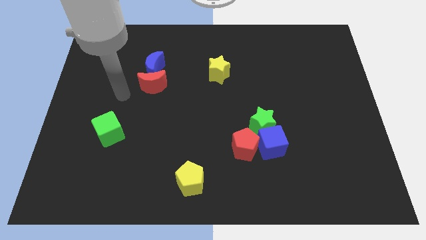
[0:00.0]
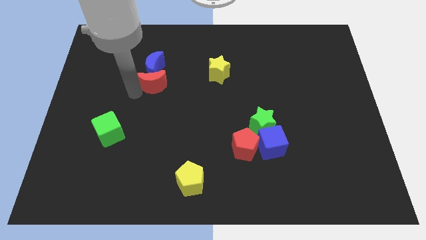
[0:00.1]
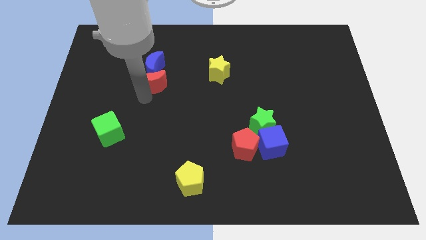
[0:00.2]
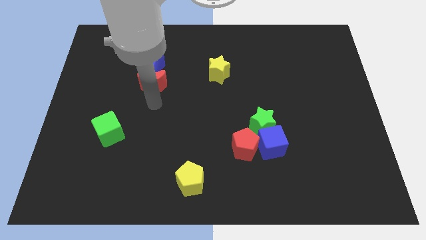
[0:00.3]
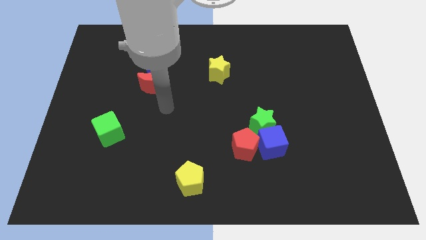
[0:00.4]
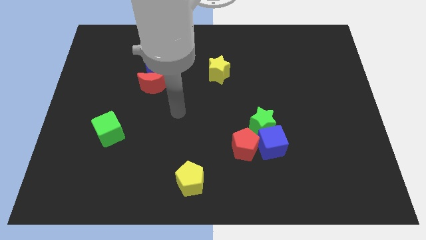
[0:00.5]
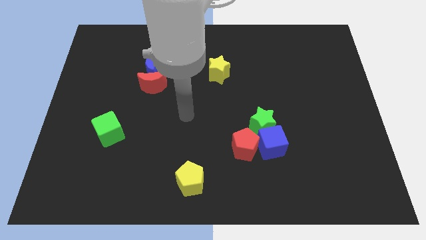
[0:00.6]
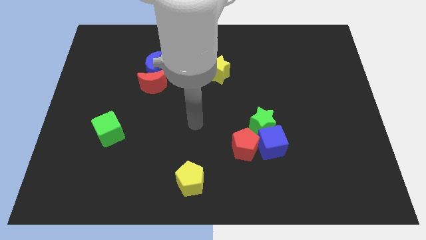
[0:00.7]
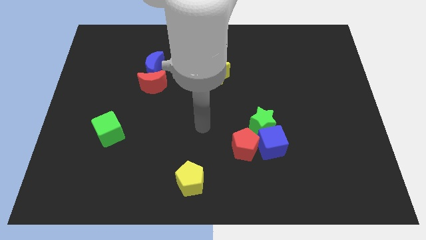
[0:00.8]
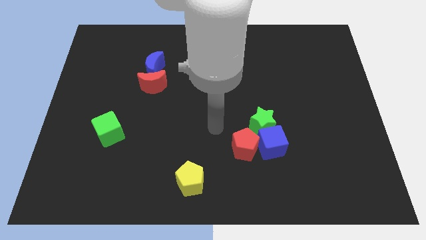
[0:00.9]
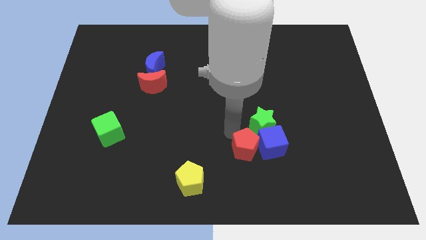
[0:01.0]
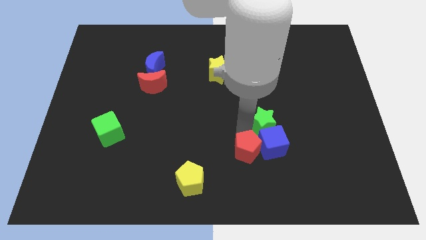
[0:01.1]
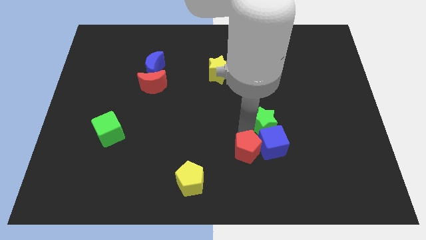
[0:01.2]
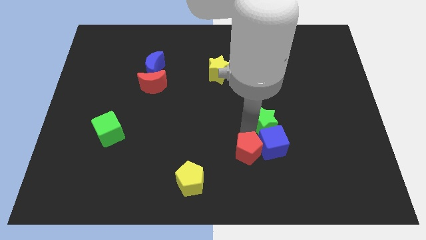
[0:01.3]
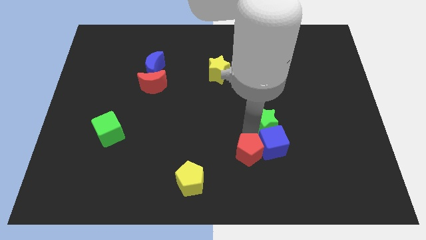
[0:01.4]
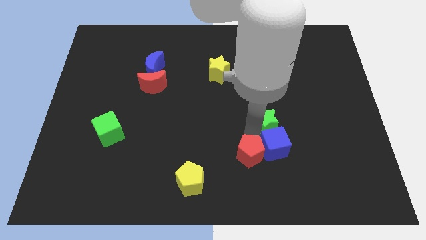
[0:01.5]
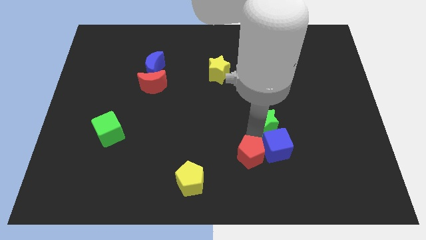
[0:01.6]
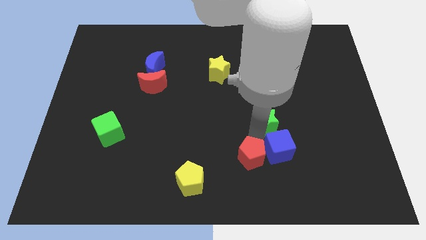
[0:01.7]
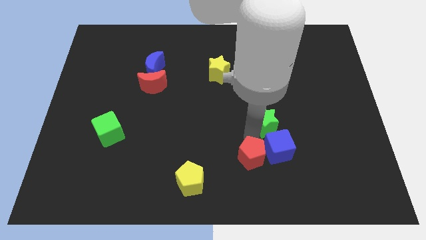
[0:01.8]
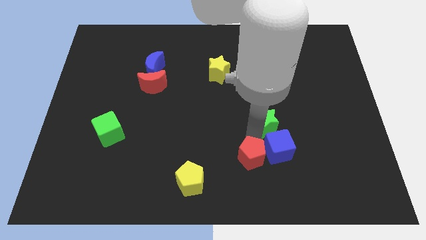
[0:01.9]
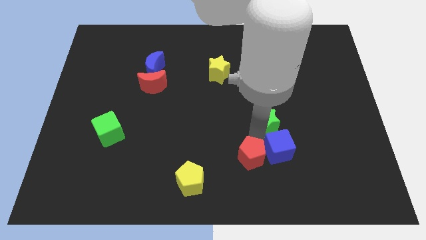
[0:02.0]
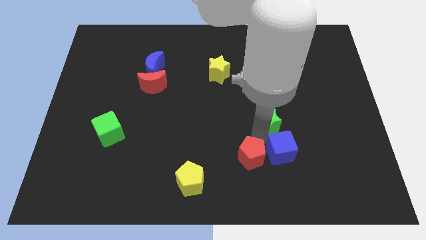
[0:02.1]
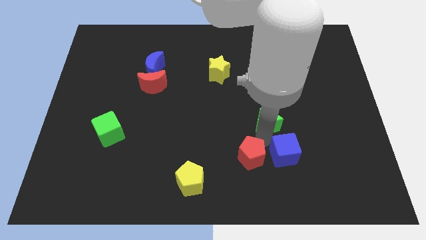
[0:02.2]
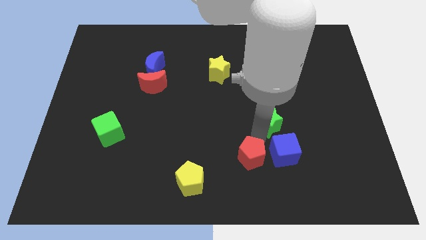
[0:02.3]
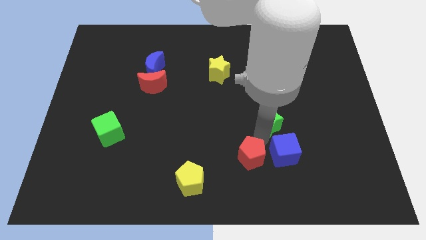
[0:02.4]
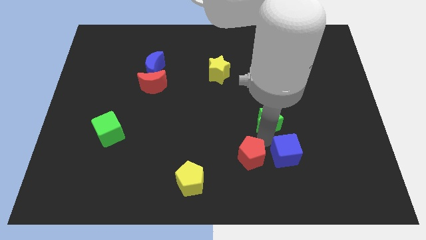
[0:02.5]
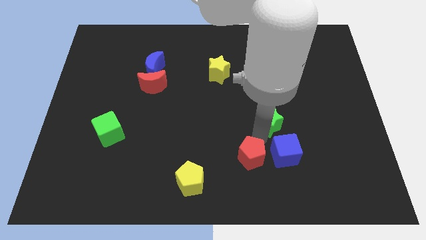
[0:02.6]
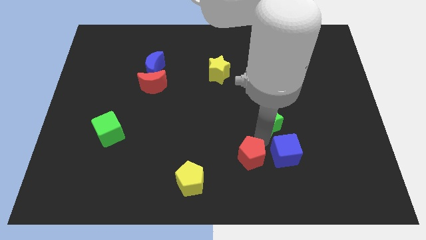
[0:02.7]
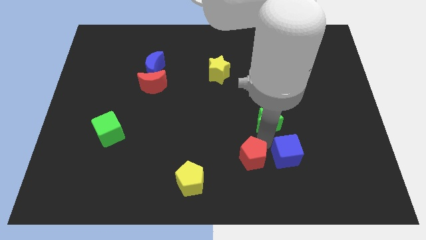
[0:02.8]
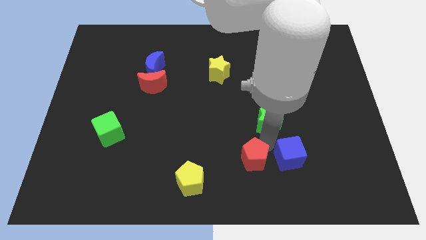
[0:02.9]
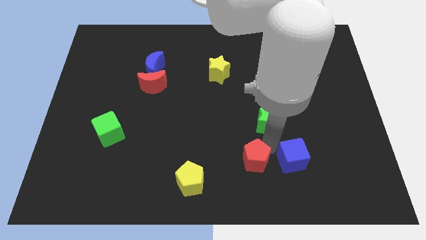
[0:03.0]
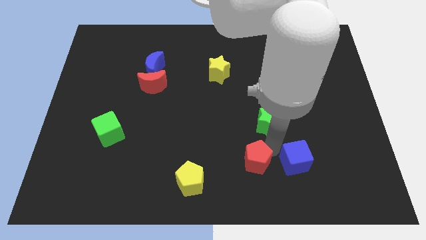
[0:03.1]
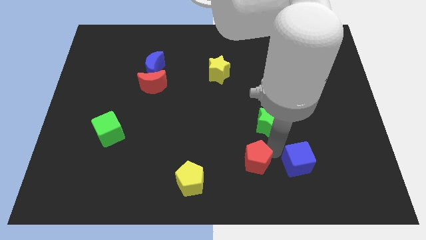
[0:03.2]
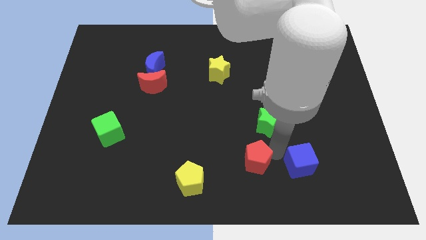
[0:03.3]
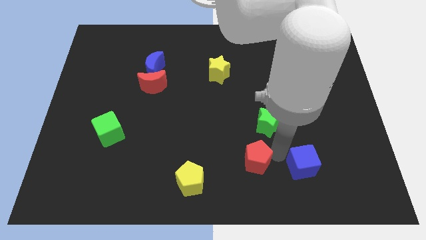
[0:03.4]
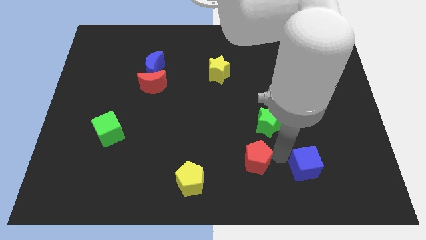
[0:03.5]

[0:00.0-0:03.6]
separate the blue cube from the green star and red pentagon

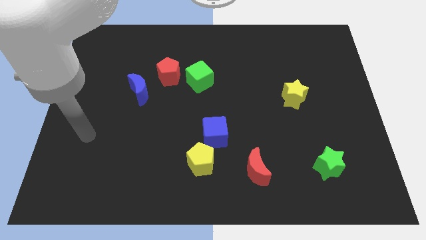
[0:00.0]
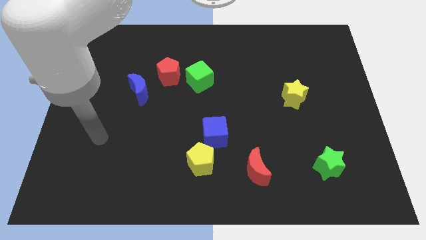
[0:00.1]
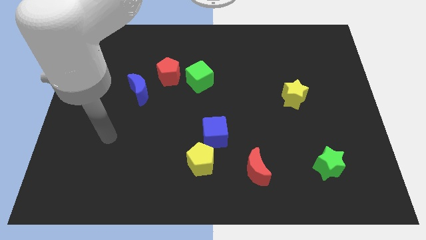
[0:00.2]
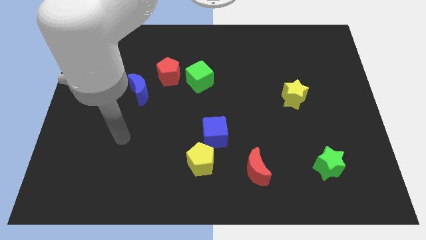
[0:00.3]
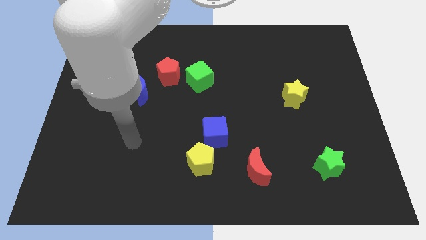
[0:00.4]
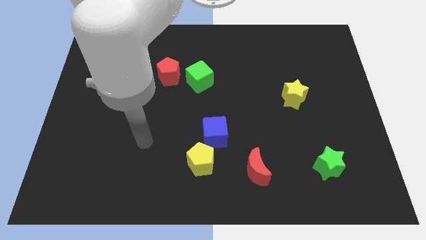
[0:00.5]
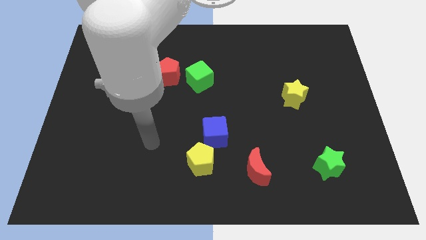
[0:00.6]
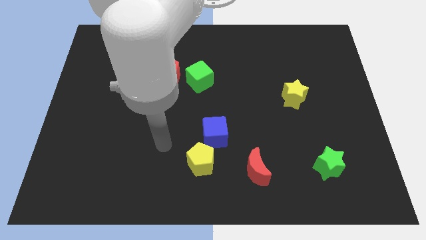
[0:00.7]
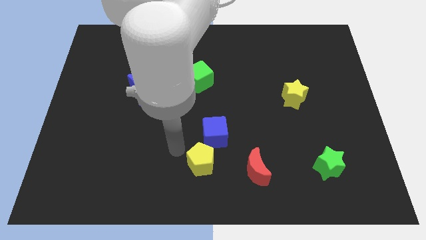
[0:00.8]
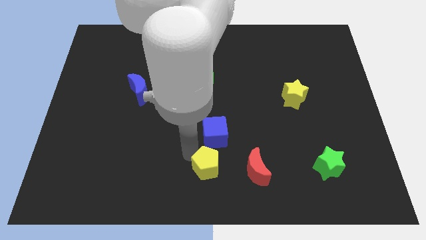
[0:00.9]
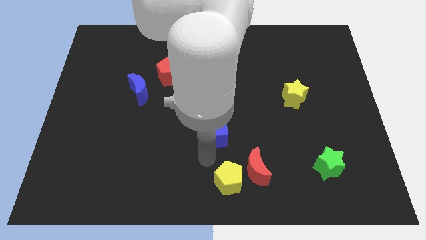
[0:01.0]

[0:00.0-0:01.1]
separate the blue cube from the yellow pentagon

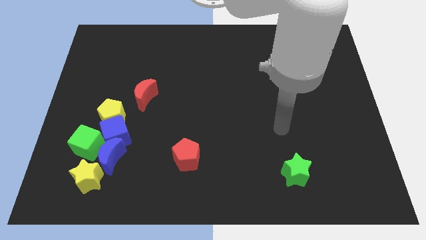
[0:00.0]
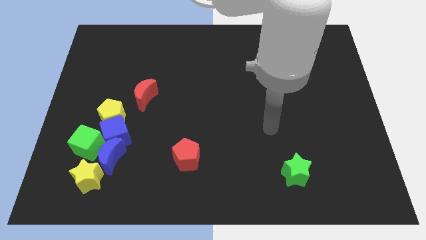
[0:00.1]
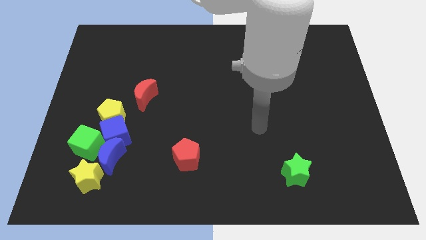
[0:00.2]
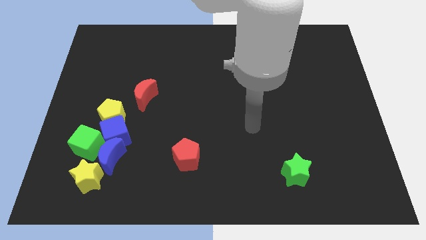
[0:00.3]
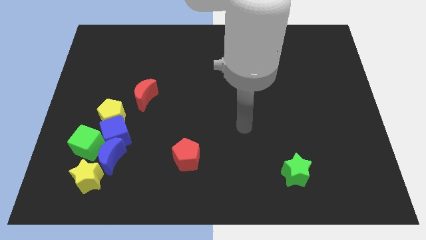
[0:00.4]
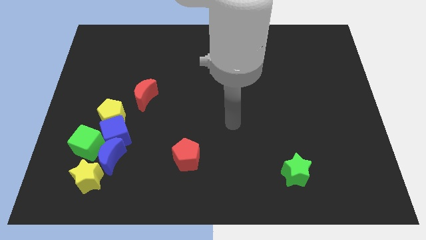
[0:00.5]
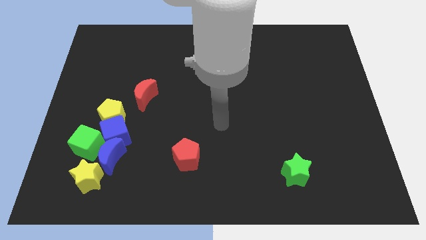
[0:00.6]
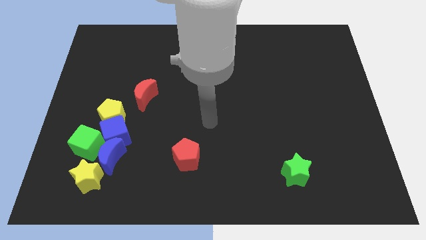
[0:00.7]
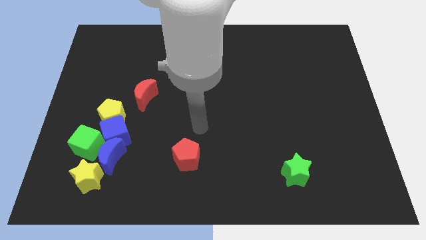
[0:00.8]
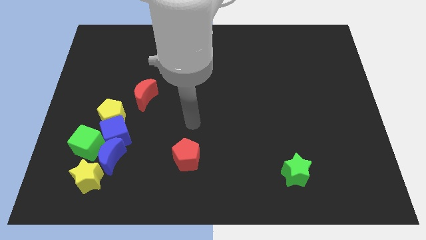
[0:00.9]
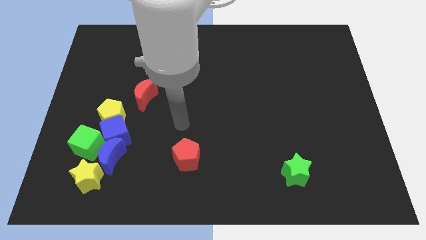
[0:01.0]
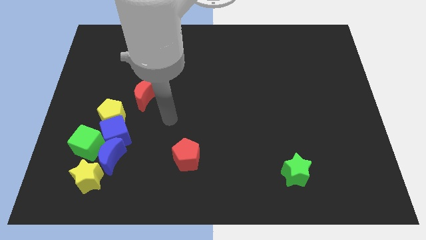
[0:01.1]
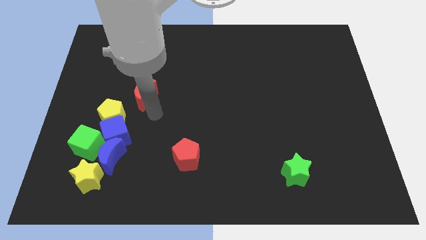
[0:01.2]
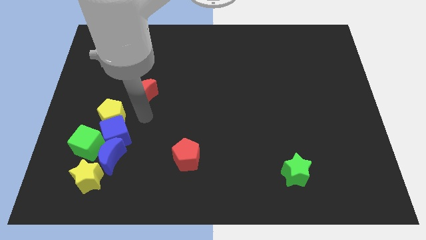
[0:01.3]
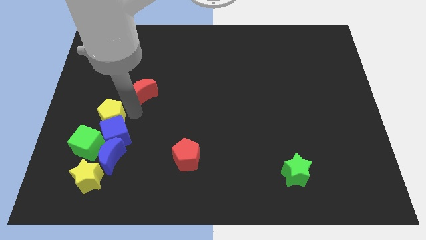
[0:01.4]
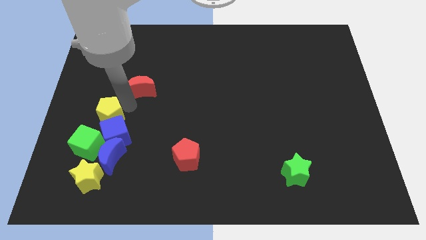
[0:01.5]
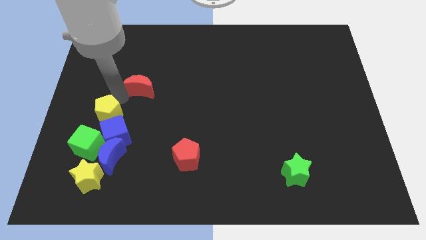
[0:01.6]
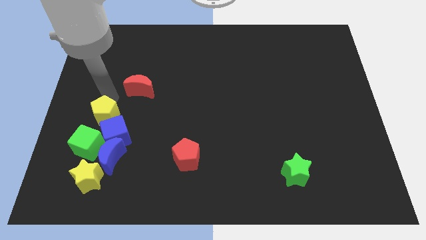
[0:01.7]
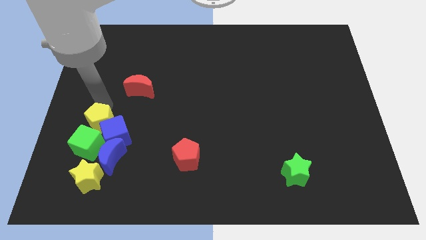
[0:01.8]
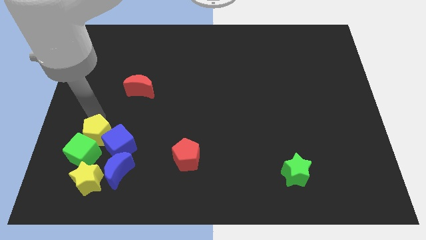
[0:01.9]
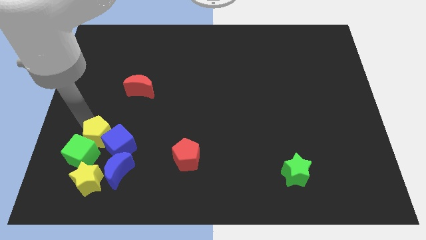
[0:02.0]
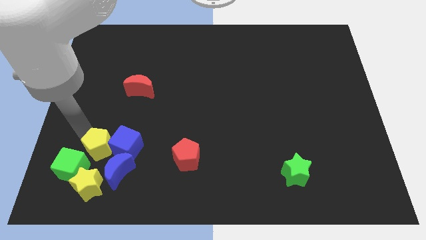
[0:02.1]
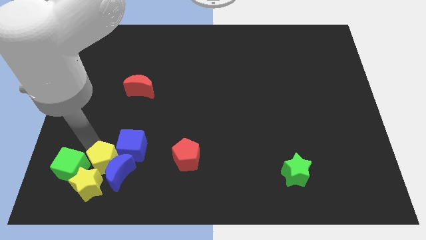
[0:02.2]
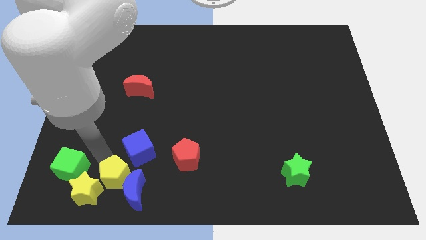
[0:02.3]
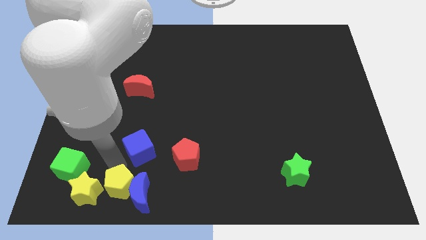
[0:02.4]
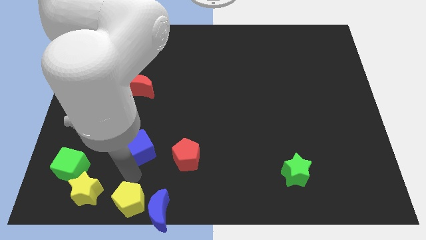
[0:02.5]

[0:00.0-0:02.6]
pull the blue cube apart from the group

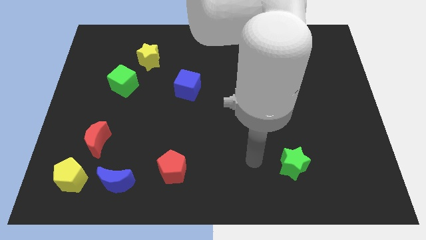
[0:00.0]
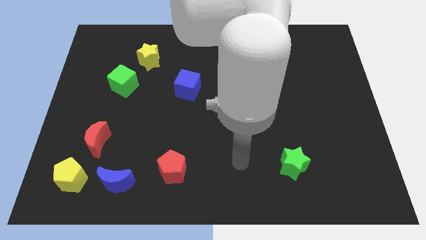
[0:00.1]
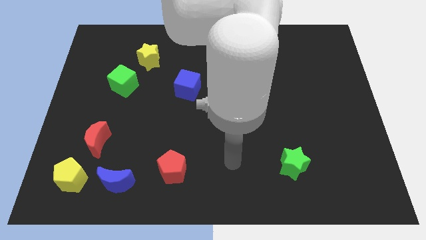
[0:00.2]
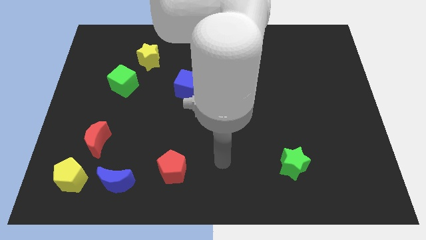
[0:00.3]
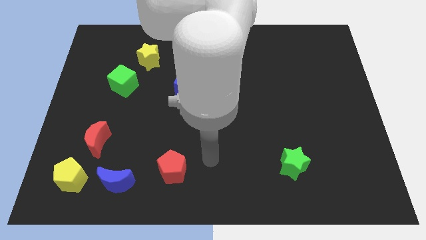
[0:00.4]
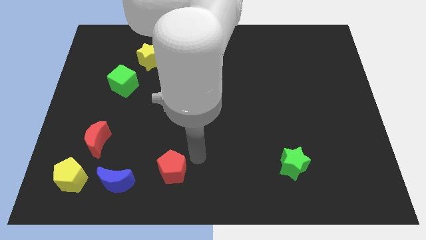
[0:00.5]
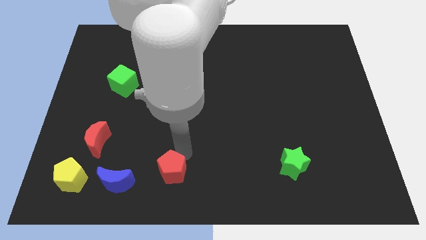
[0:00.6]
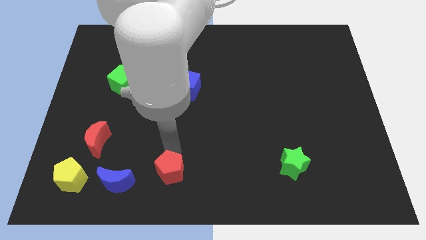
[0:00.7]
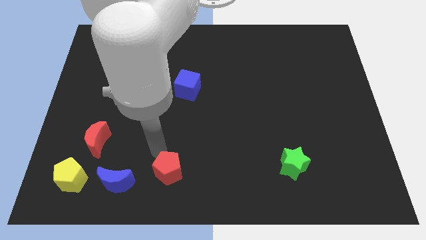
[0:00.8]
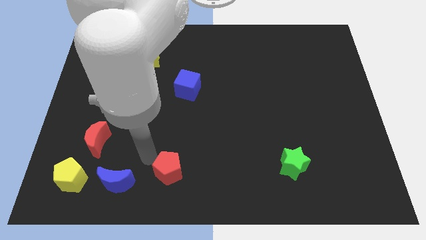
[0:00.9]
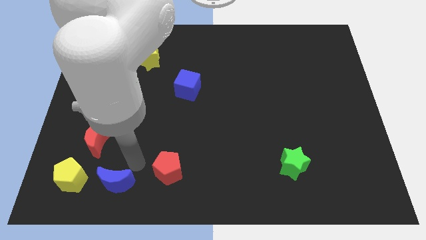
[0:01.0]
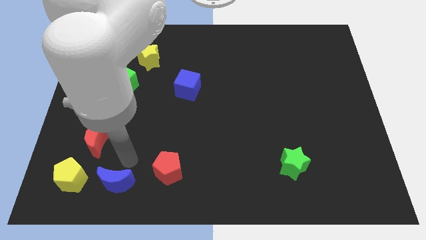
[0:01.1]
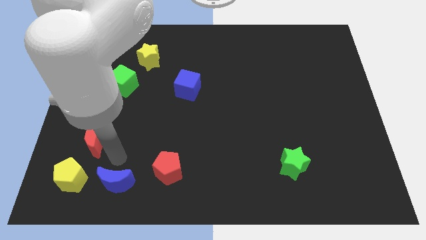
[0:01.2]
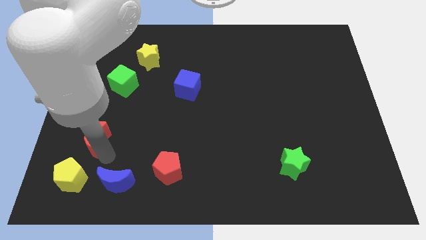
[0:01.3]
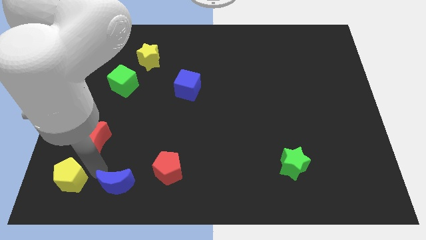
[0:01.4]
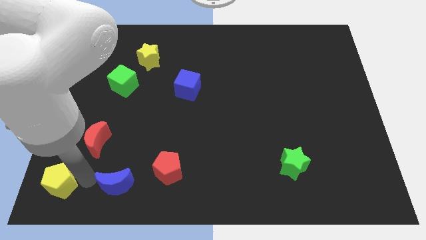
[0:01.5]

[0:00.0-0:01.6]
pull the blue moon apart from the yellow pentagon

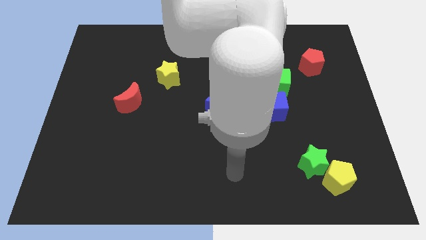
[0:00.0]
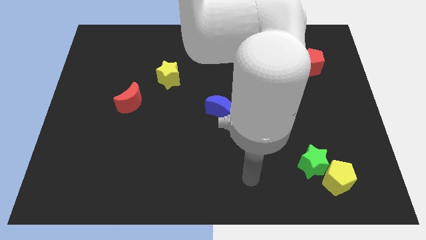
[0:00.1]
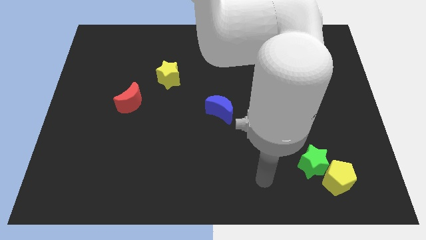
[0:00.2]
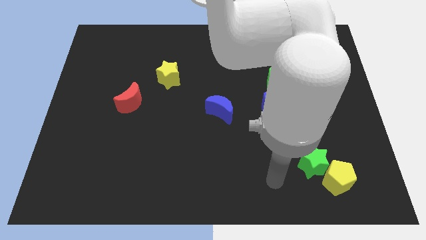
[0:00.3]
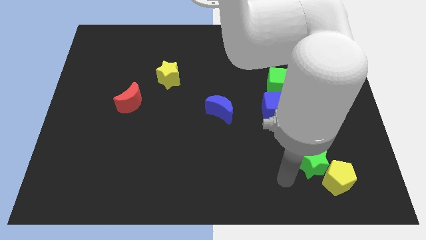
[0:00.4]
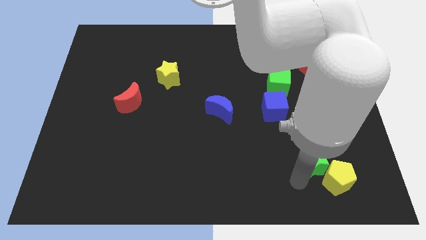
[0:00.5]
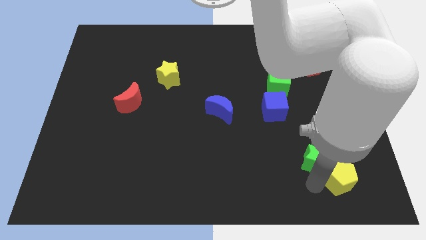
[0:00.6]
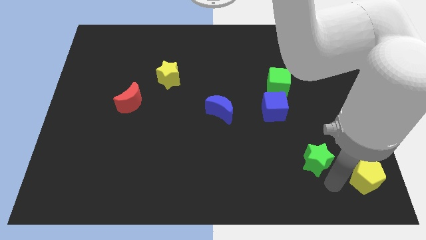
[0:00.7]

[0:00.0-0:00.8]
separate the green star from the yellow pentagon
